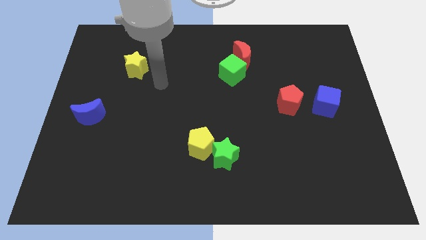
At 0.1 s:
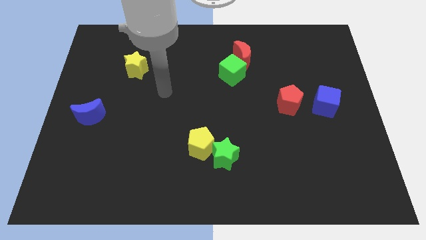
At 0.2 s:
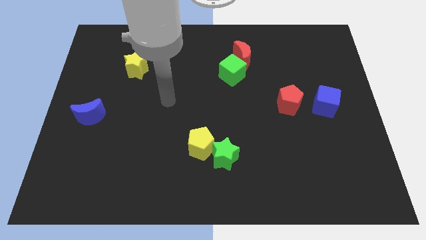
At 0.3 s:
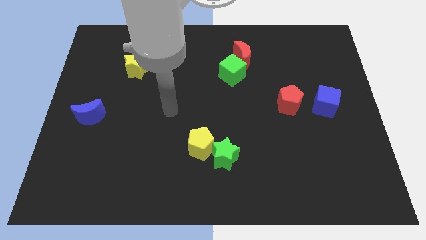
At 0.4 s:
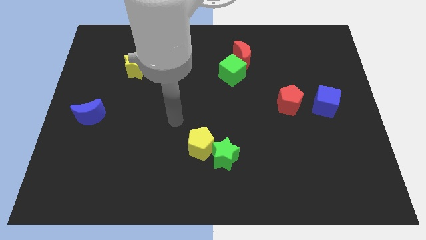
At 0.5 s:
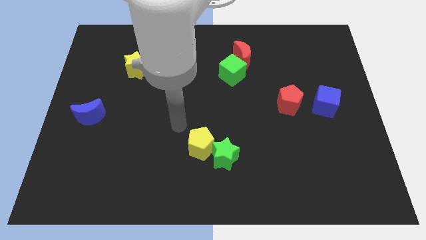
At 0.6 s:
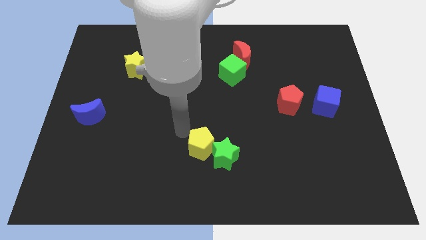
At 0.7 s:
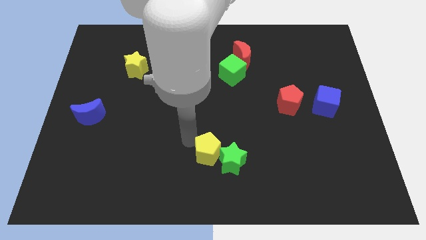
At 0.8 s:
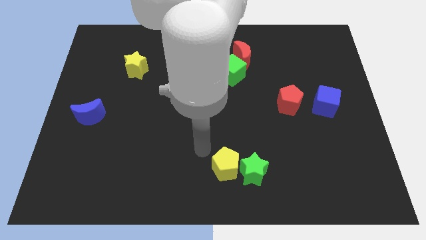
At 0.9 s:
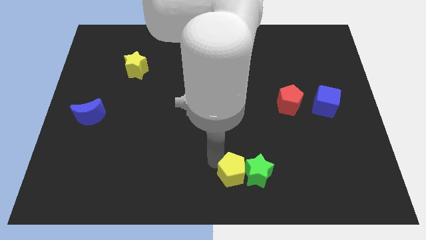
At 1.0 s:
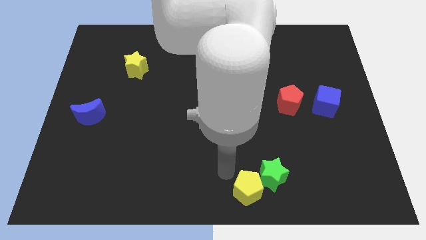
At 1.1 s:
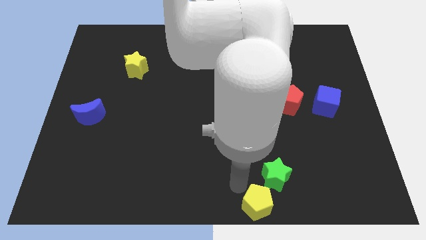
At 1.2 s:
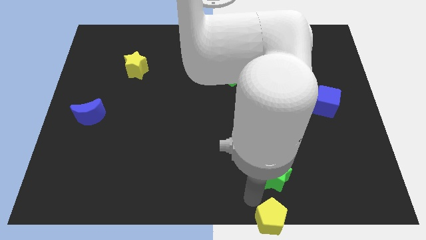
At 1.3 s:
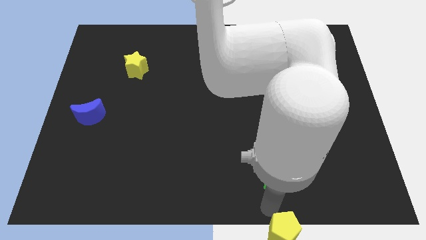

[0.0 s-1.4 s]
move the green star away from the yellow pentagon

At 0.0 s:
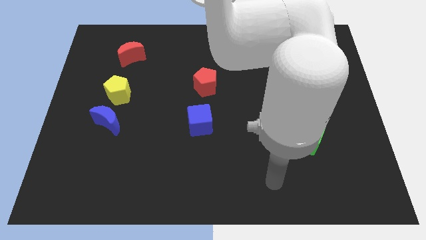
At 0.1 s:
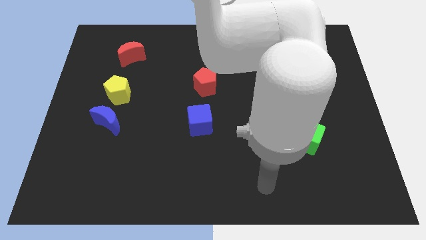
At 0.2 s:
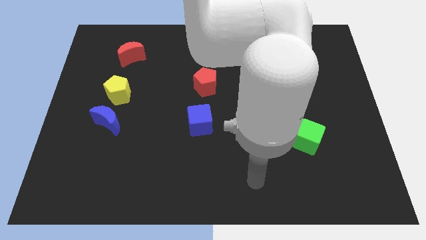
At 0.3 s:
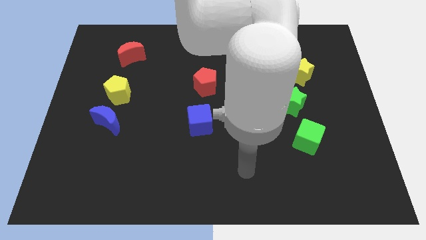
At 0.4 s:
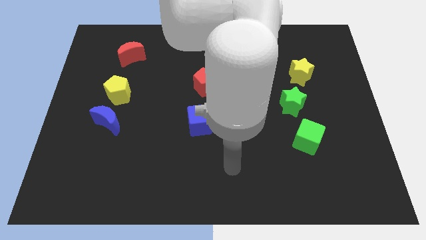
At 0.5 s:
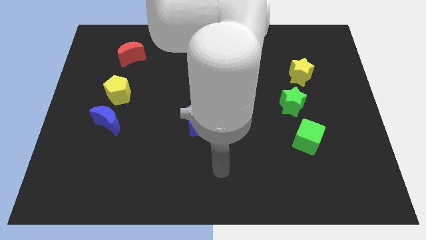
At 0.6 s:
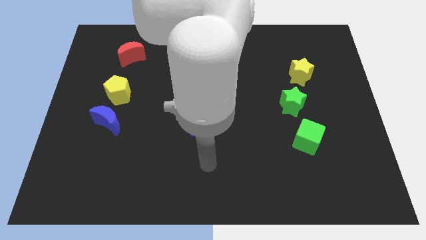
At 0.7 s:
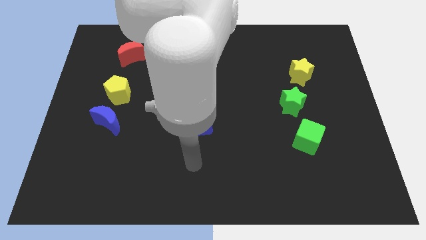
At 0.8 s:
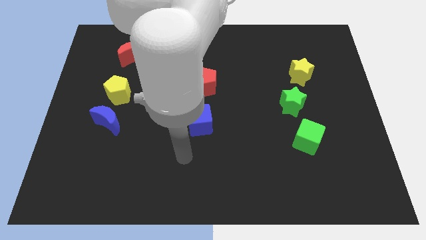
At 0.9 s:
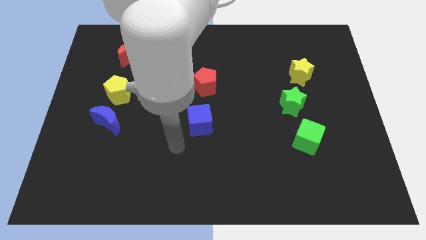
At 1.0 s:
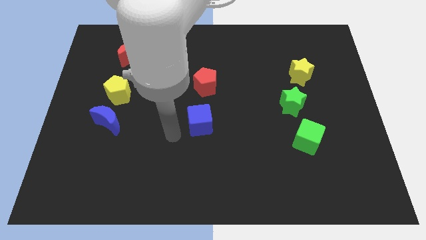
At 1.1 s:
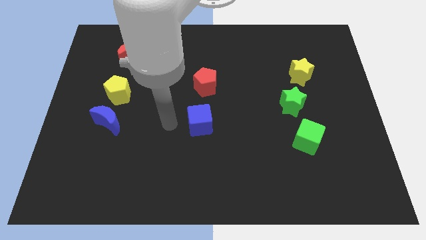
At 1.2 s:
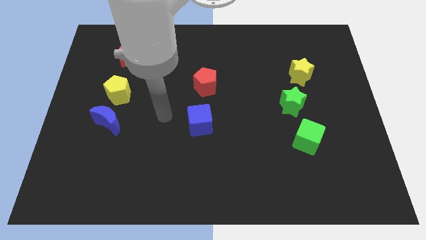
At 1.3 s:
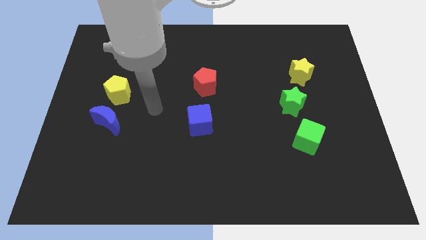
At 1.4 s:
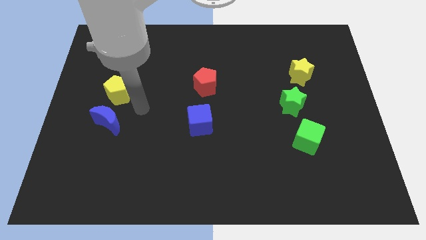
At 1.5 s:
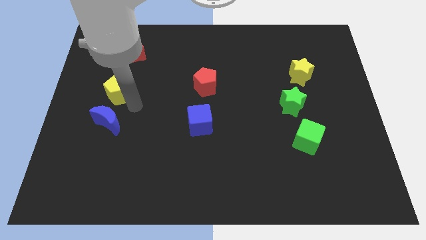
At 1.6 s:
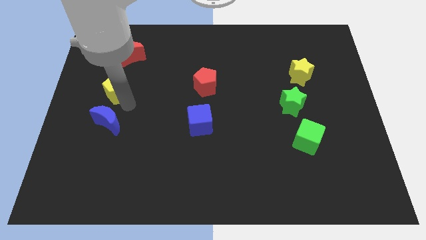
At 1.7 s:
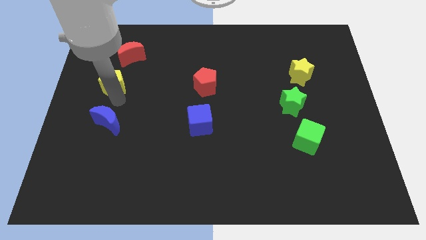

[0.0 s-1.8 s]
move the blue moon away from the yellow pentagon

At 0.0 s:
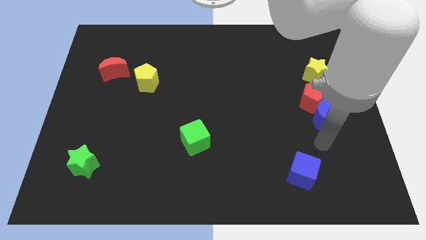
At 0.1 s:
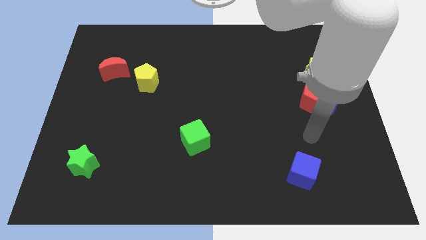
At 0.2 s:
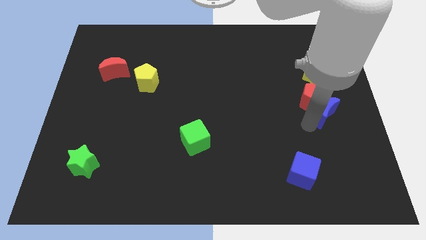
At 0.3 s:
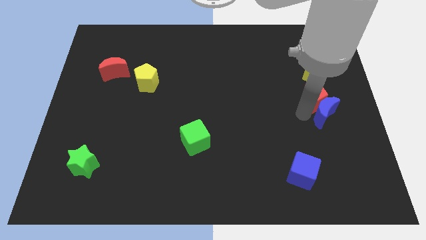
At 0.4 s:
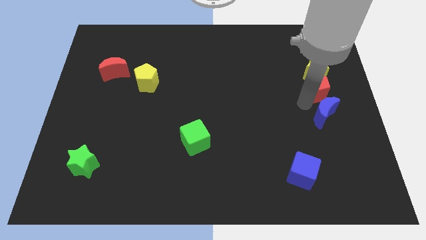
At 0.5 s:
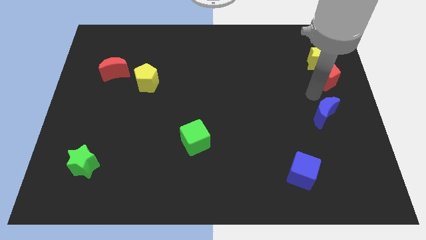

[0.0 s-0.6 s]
pull the blue moon apart from the red pentagon

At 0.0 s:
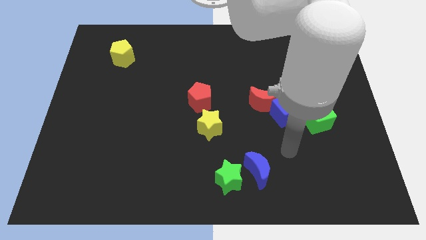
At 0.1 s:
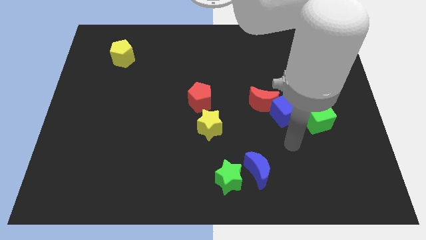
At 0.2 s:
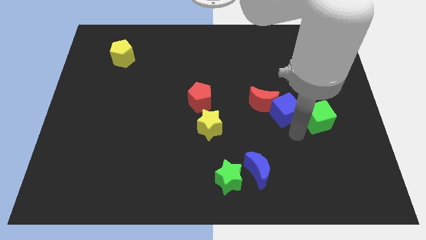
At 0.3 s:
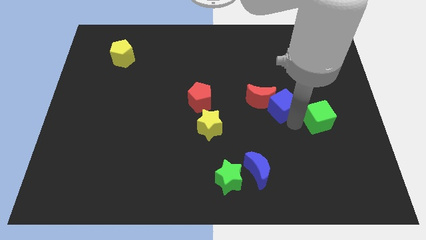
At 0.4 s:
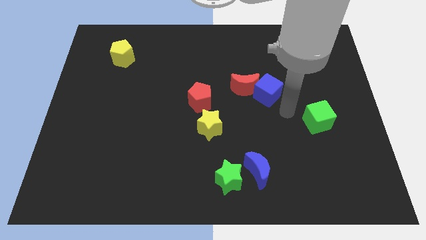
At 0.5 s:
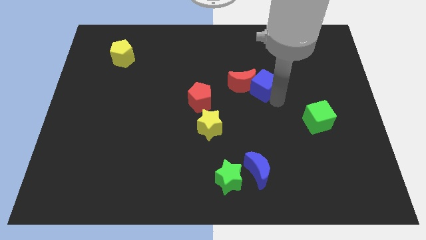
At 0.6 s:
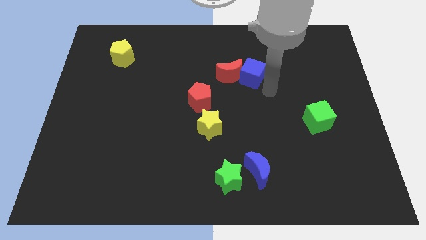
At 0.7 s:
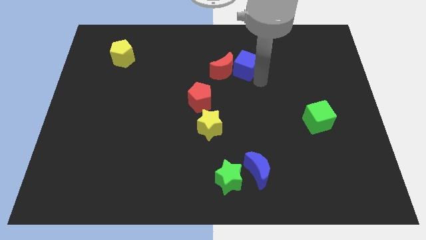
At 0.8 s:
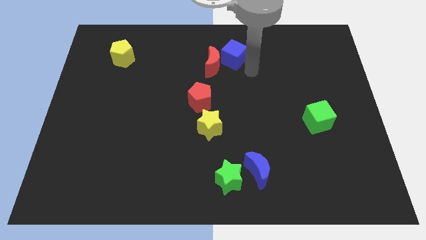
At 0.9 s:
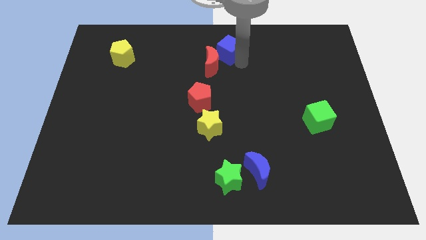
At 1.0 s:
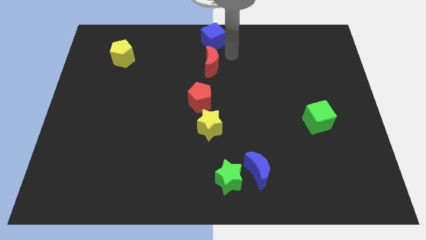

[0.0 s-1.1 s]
move the red moon away from the blue cube

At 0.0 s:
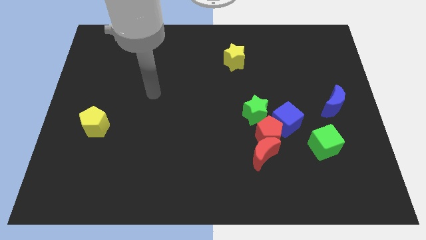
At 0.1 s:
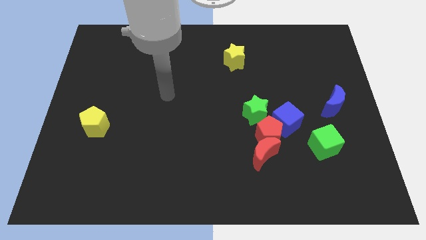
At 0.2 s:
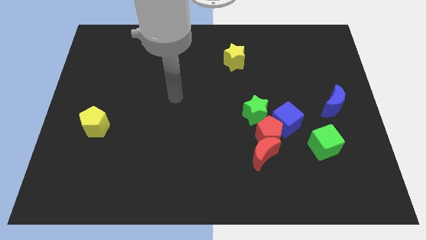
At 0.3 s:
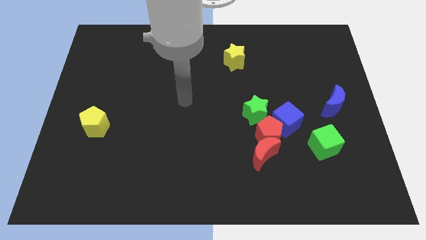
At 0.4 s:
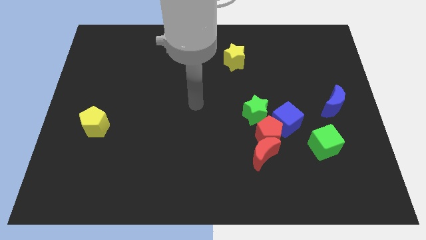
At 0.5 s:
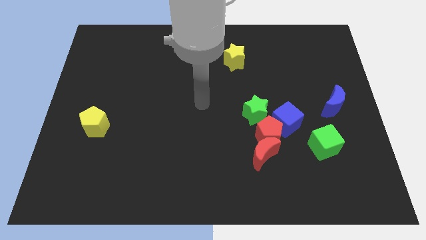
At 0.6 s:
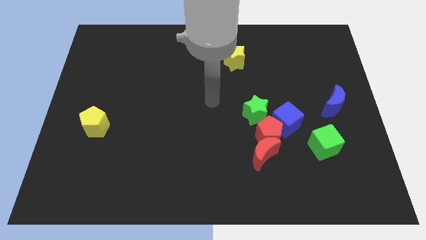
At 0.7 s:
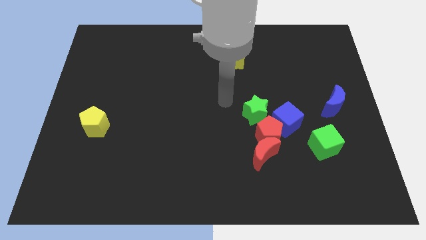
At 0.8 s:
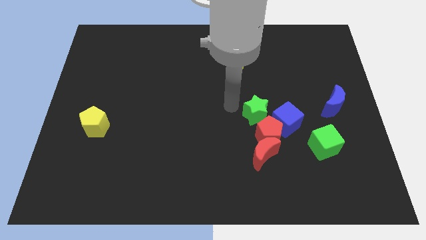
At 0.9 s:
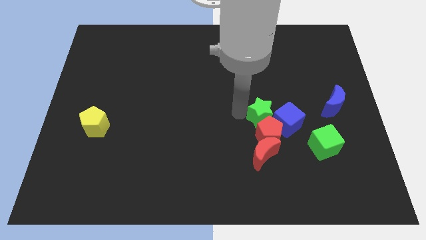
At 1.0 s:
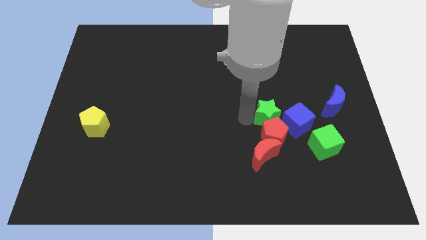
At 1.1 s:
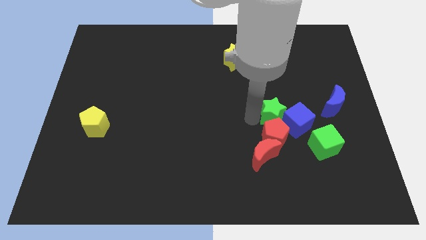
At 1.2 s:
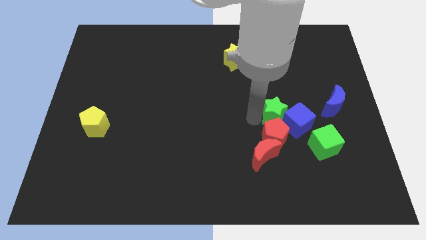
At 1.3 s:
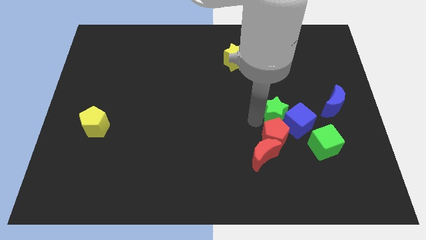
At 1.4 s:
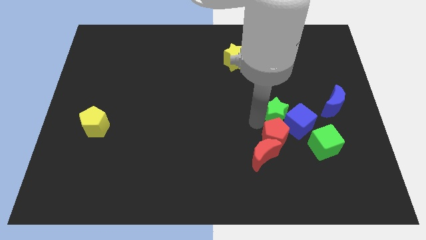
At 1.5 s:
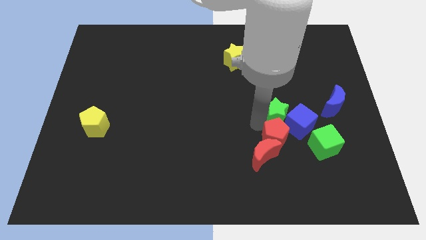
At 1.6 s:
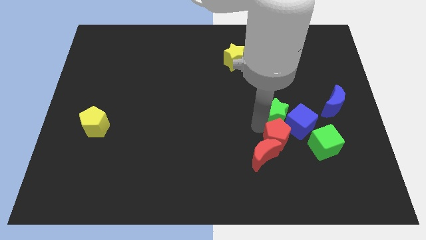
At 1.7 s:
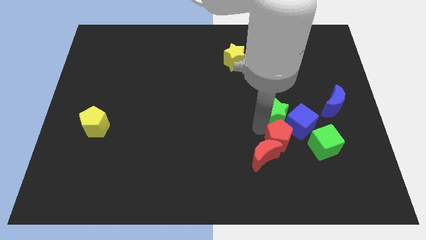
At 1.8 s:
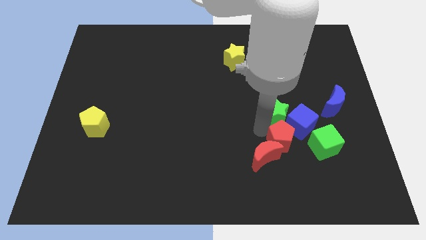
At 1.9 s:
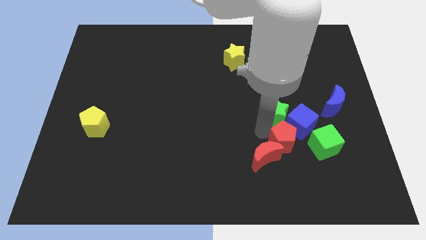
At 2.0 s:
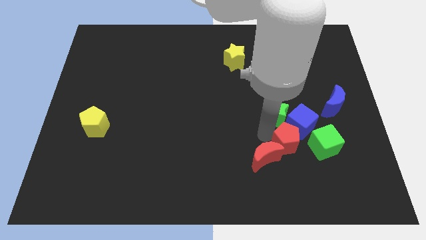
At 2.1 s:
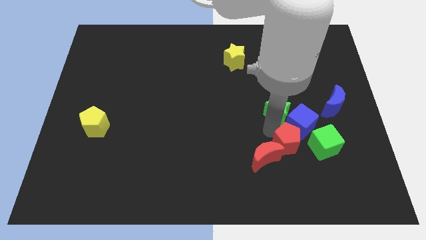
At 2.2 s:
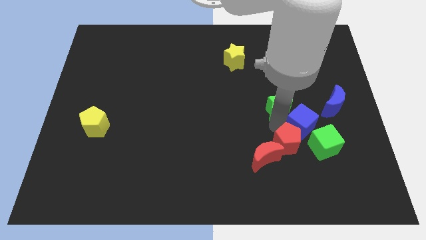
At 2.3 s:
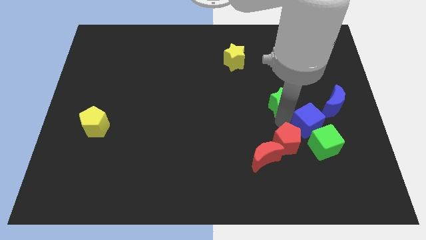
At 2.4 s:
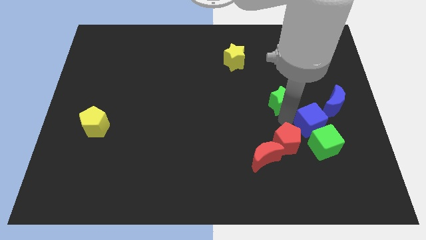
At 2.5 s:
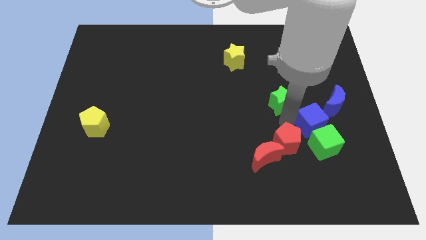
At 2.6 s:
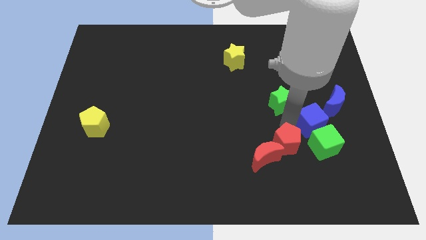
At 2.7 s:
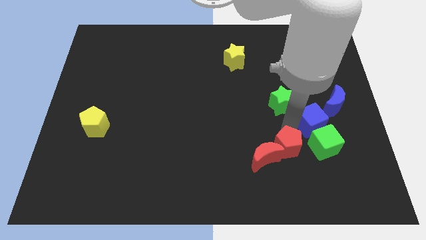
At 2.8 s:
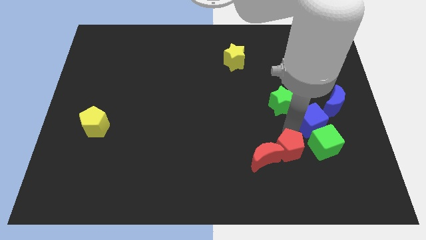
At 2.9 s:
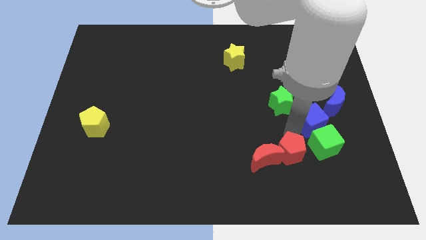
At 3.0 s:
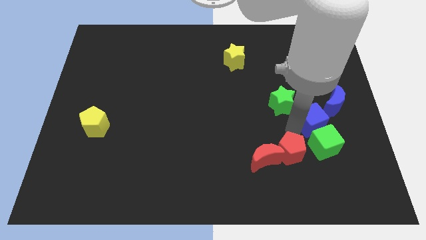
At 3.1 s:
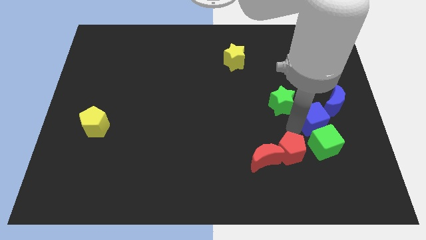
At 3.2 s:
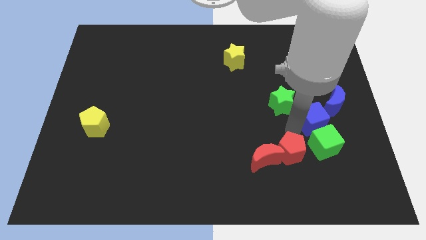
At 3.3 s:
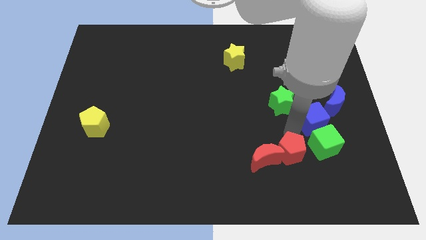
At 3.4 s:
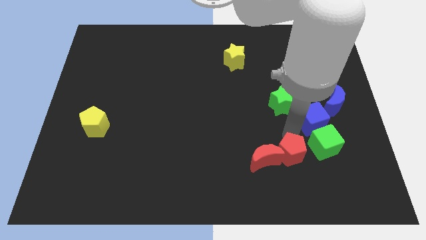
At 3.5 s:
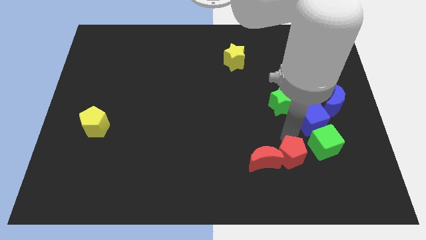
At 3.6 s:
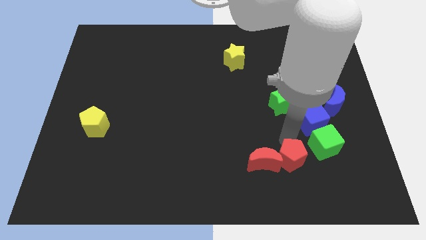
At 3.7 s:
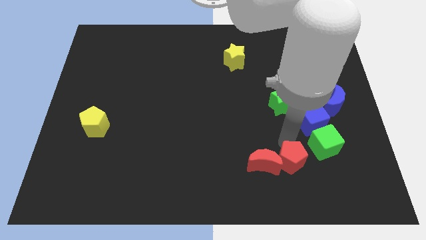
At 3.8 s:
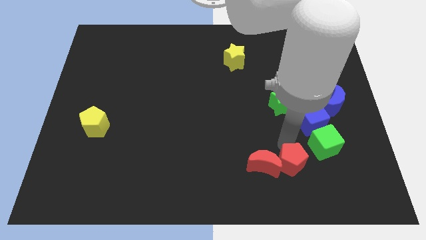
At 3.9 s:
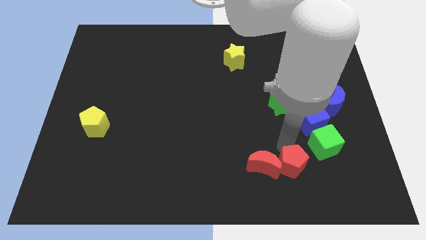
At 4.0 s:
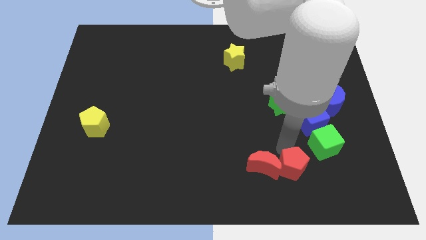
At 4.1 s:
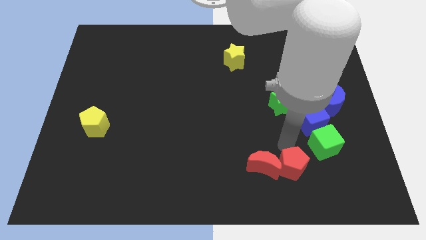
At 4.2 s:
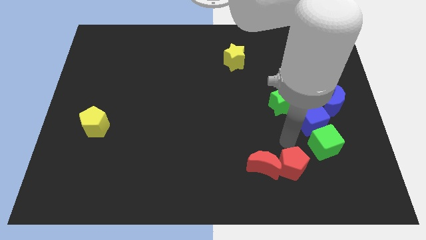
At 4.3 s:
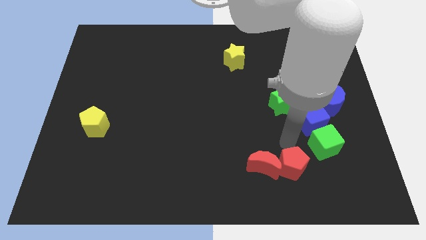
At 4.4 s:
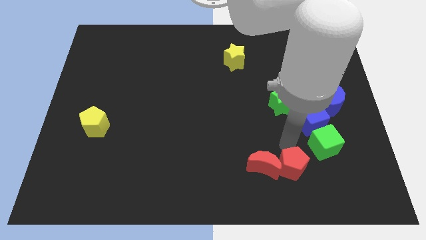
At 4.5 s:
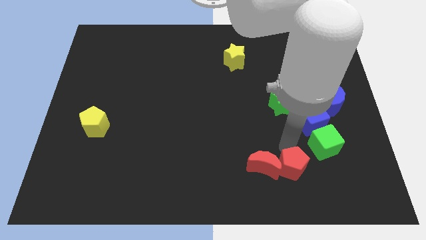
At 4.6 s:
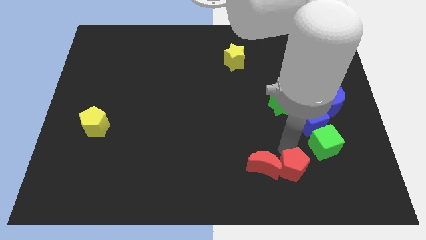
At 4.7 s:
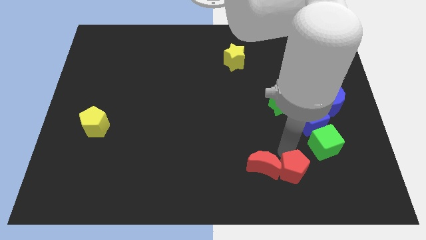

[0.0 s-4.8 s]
pull the red pentagon apart from the group of blocks
